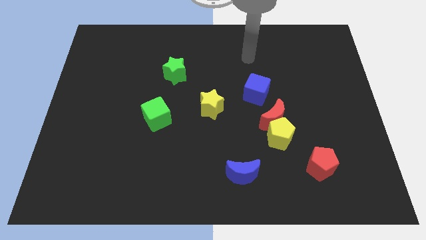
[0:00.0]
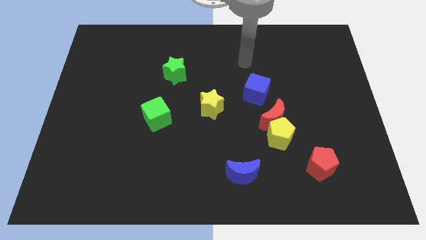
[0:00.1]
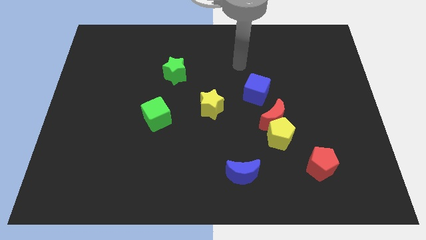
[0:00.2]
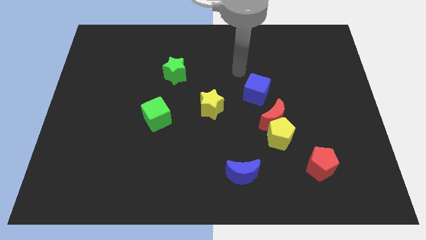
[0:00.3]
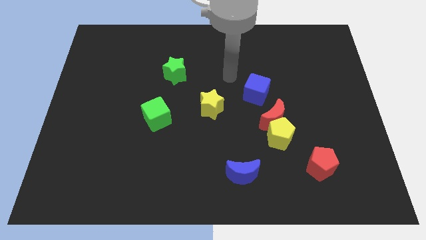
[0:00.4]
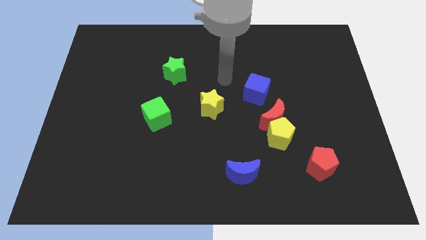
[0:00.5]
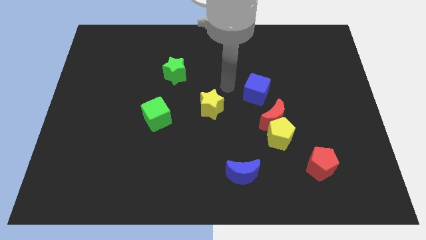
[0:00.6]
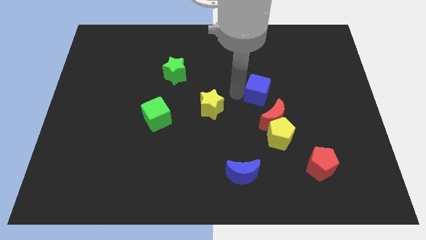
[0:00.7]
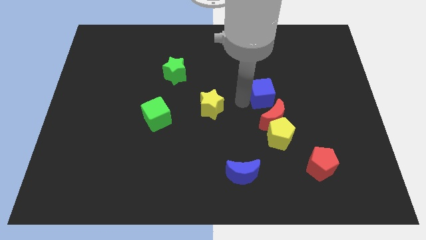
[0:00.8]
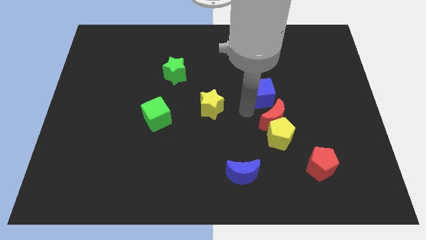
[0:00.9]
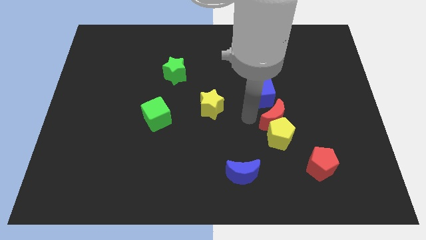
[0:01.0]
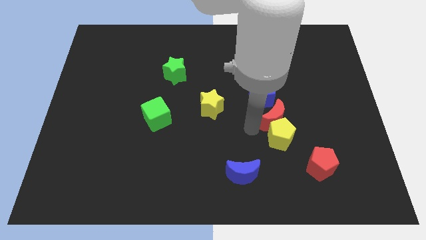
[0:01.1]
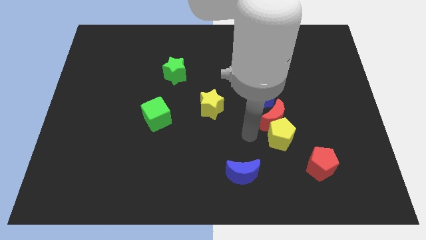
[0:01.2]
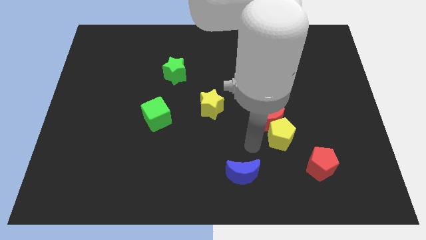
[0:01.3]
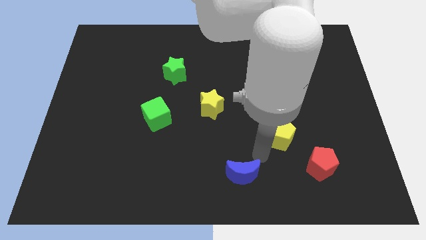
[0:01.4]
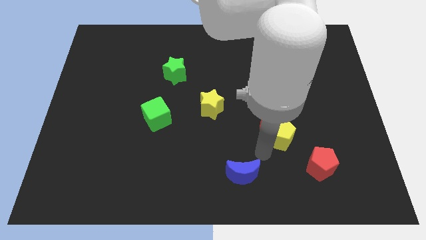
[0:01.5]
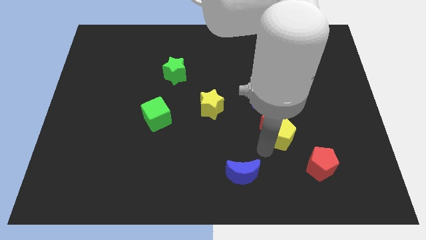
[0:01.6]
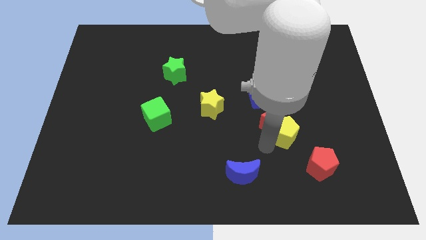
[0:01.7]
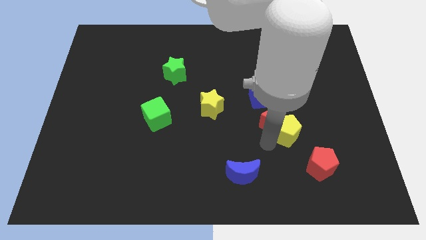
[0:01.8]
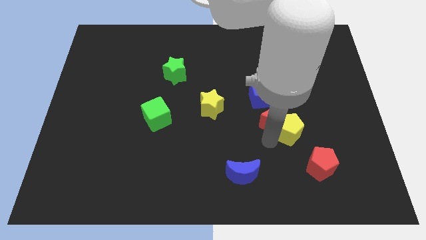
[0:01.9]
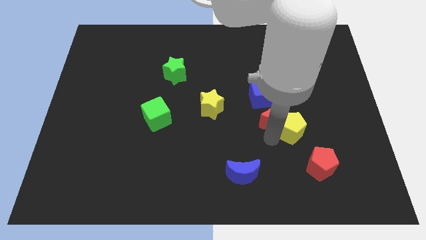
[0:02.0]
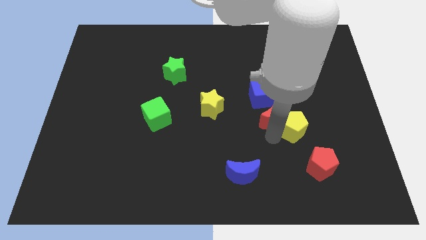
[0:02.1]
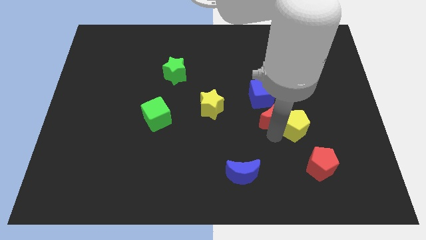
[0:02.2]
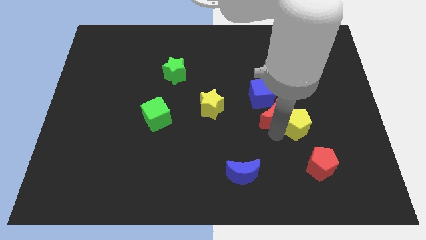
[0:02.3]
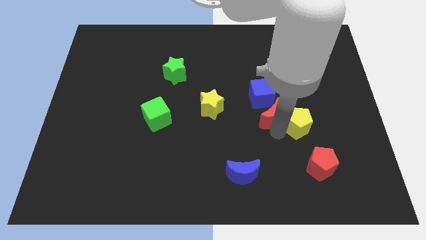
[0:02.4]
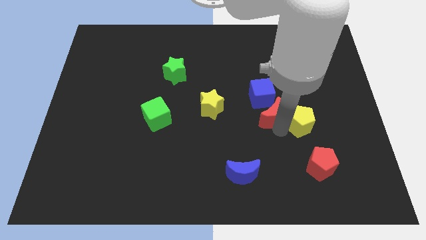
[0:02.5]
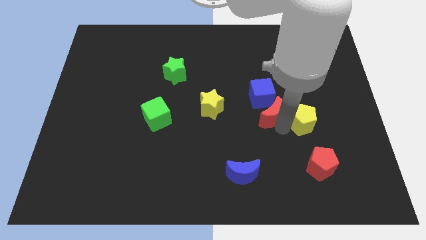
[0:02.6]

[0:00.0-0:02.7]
slide the yellow pentagon a bit diagonally upwards and right

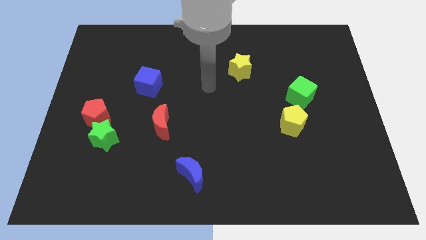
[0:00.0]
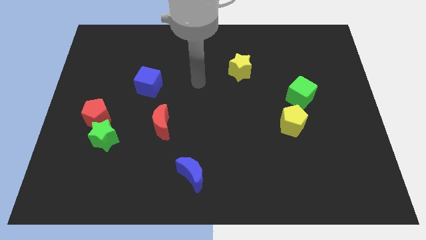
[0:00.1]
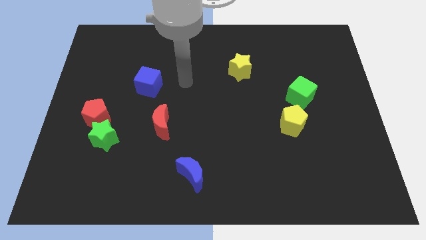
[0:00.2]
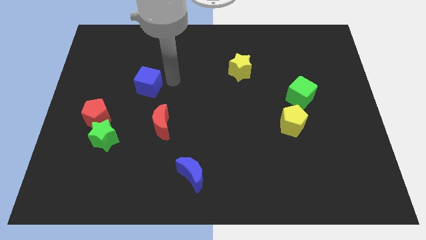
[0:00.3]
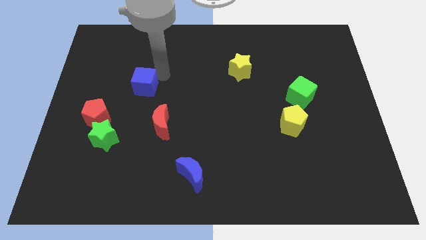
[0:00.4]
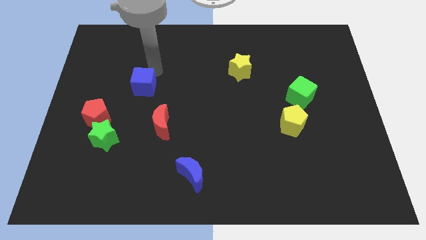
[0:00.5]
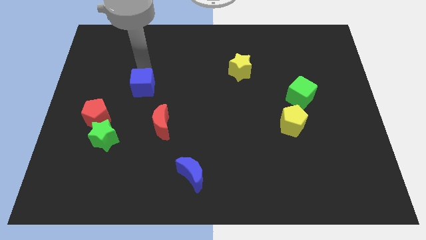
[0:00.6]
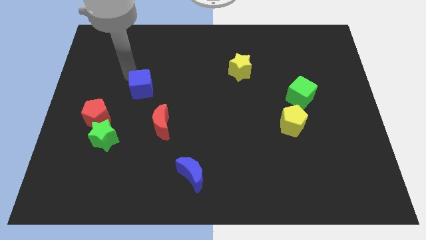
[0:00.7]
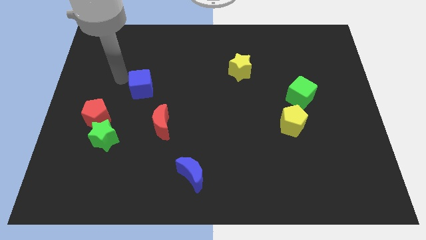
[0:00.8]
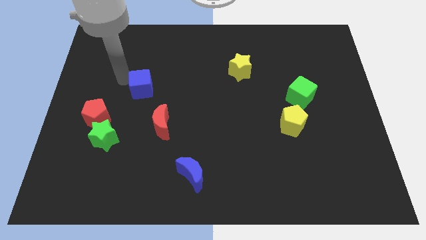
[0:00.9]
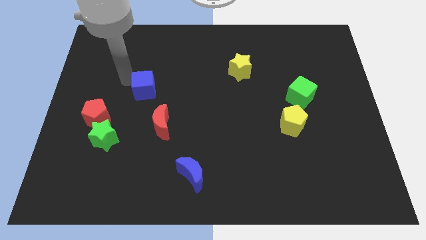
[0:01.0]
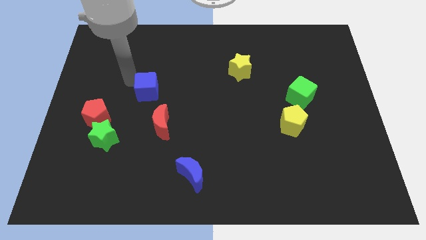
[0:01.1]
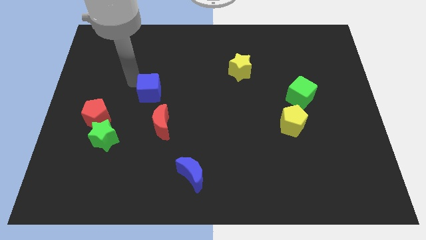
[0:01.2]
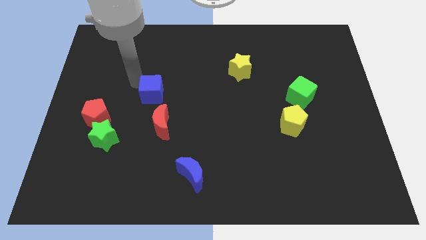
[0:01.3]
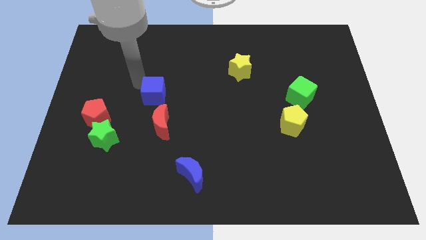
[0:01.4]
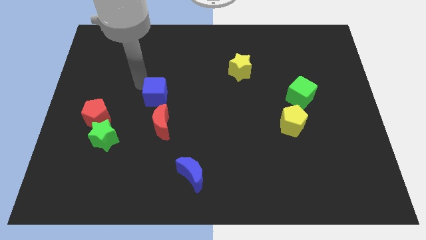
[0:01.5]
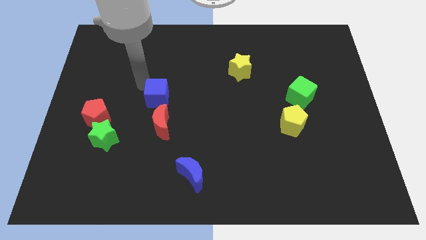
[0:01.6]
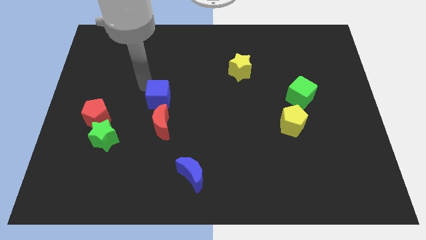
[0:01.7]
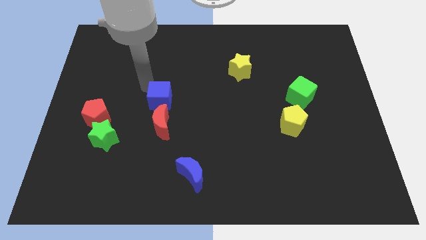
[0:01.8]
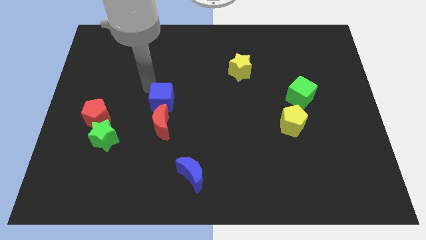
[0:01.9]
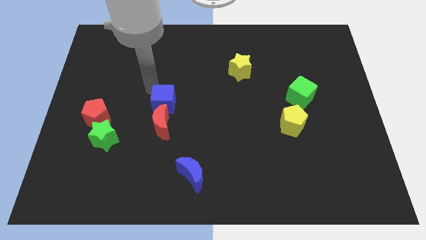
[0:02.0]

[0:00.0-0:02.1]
push the blue cube diagonally downwards and to the right a little bit

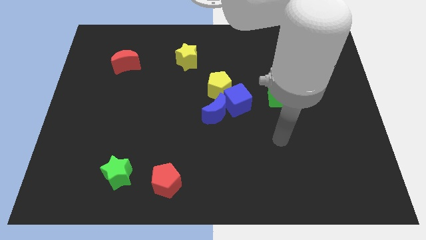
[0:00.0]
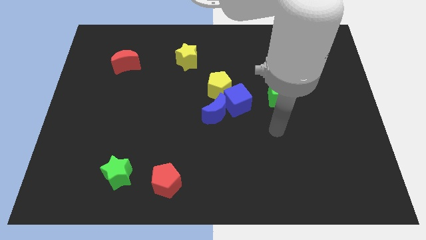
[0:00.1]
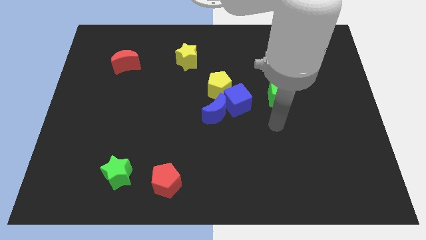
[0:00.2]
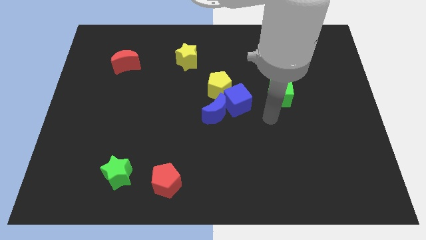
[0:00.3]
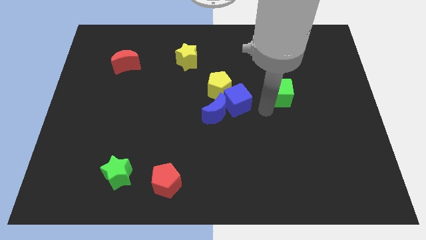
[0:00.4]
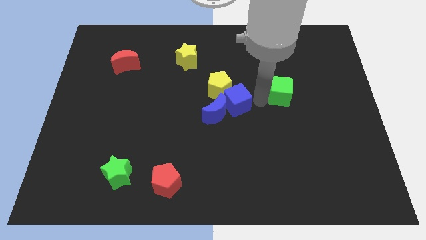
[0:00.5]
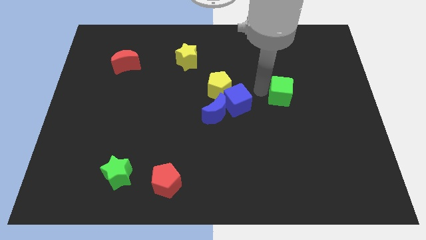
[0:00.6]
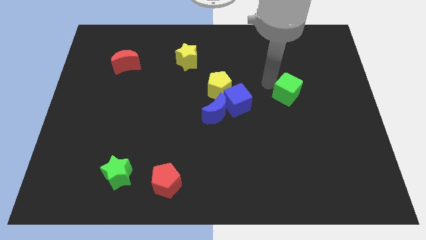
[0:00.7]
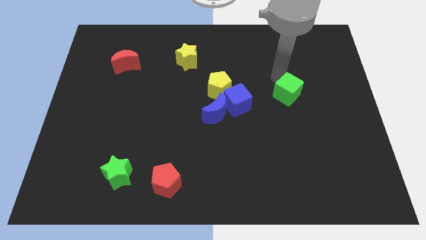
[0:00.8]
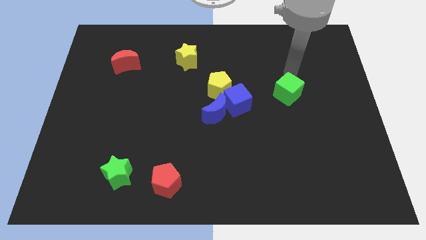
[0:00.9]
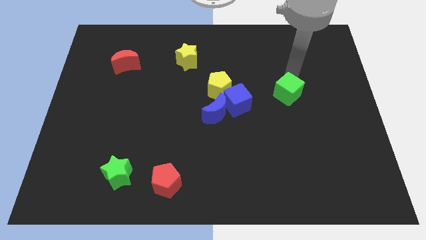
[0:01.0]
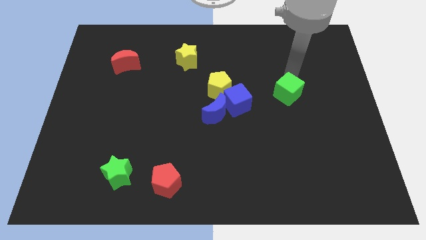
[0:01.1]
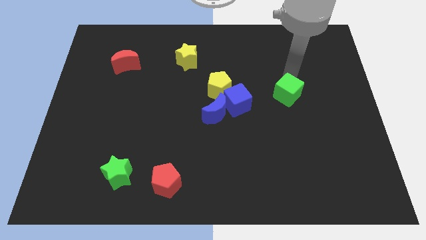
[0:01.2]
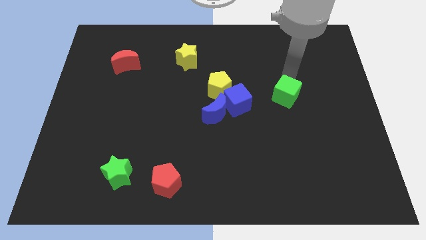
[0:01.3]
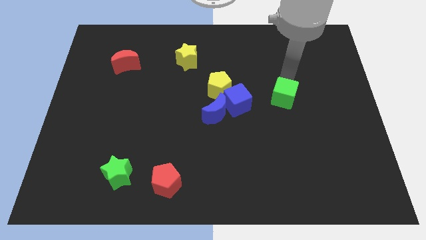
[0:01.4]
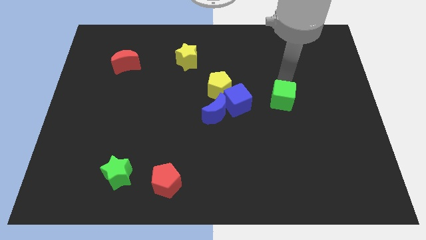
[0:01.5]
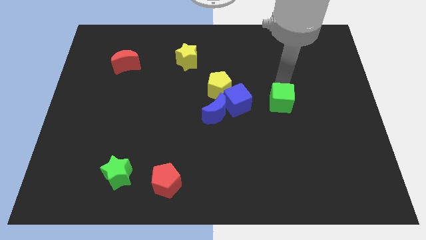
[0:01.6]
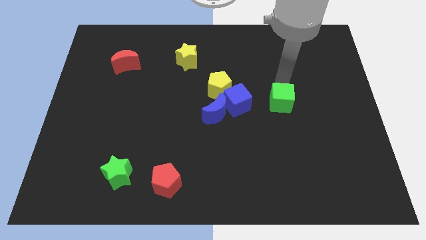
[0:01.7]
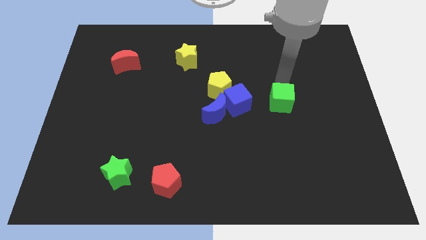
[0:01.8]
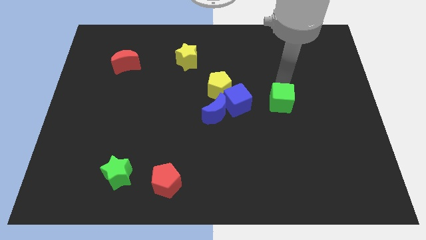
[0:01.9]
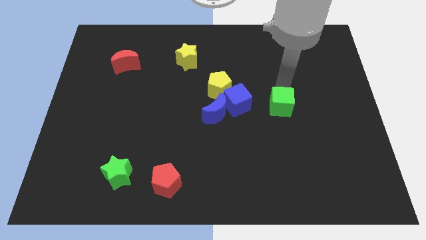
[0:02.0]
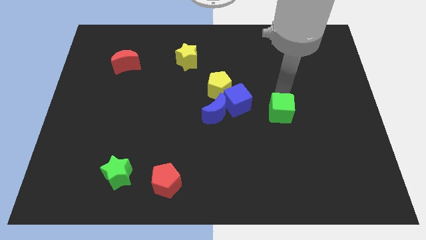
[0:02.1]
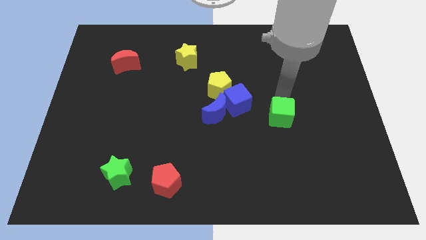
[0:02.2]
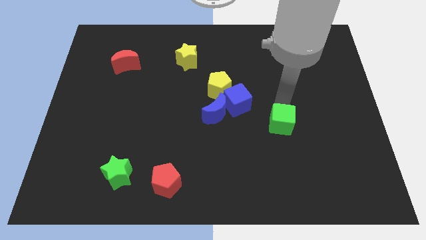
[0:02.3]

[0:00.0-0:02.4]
slightly push the green cube downwards

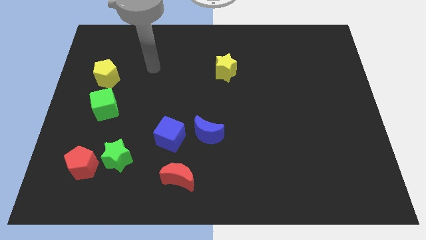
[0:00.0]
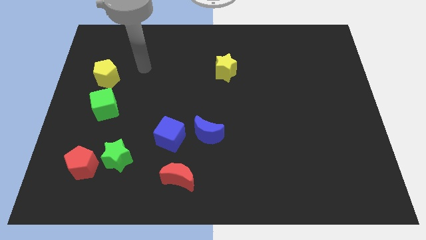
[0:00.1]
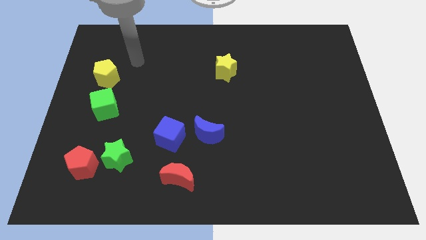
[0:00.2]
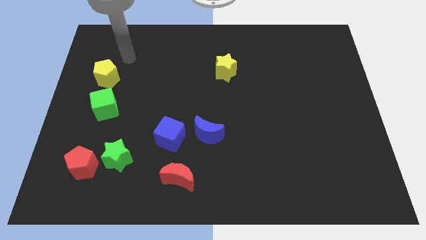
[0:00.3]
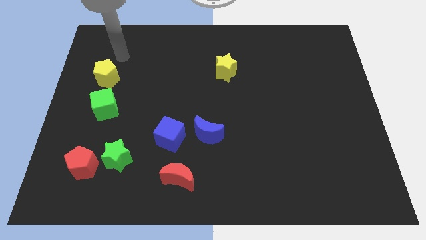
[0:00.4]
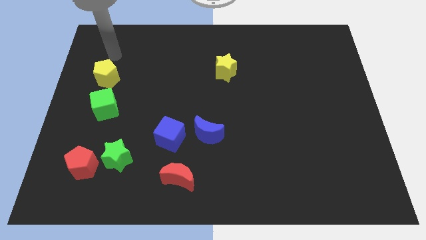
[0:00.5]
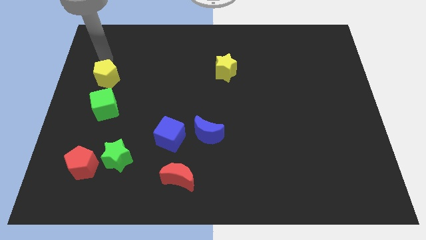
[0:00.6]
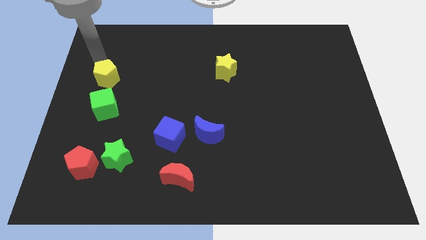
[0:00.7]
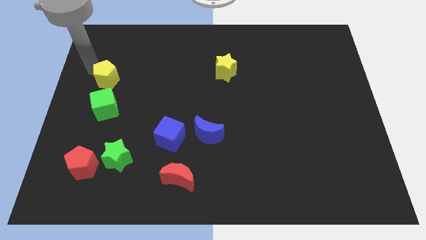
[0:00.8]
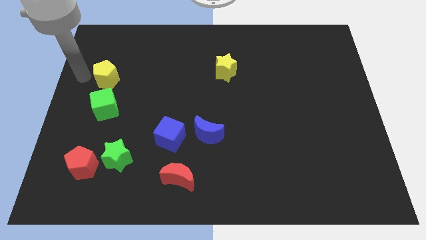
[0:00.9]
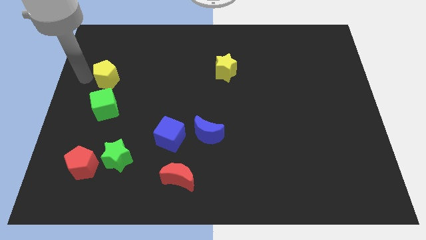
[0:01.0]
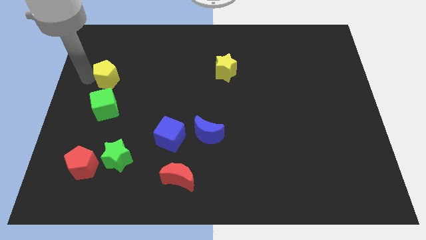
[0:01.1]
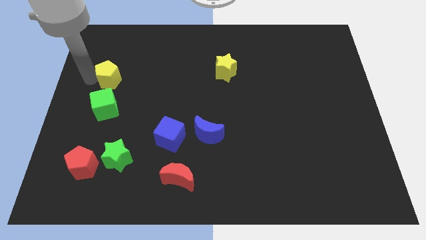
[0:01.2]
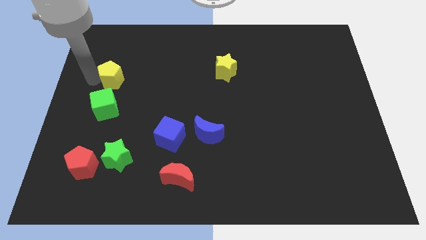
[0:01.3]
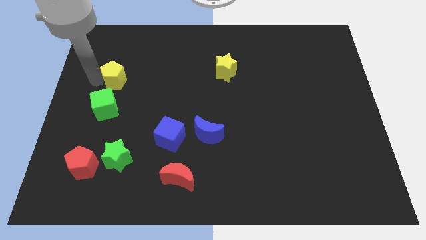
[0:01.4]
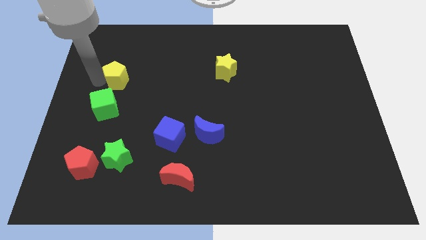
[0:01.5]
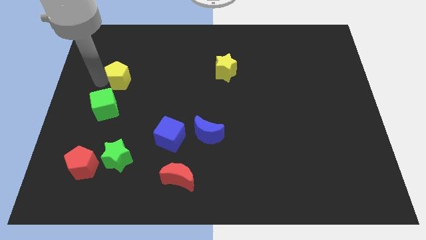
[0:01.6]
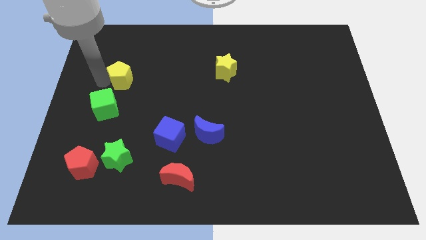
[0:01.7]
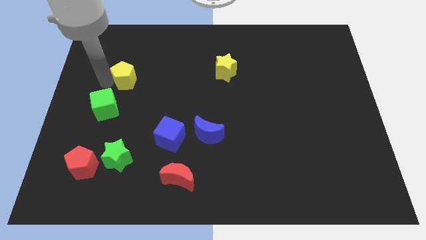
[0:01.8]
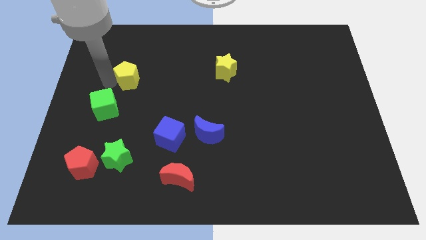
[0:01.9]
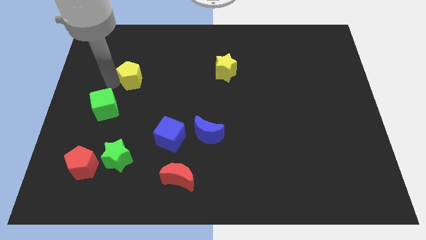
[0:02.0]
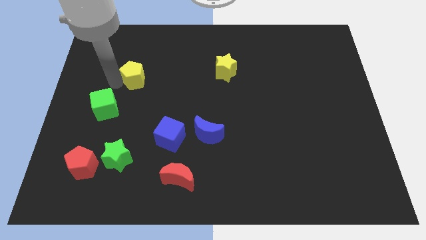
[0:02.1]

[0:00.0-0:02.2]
slightly push the yellow pentagon right
